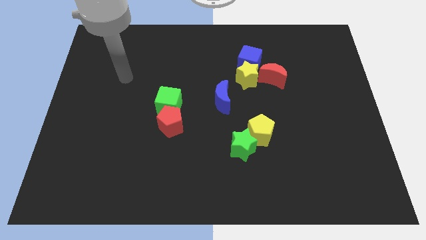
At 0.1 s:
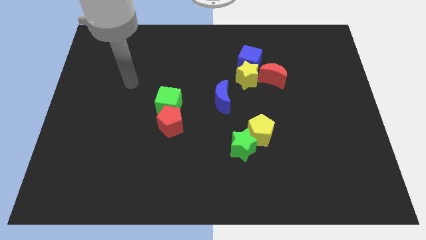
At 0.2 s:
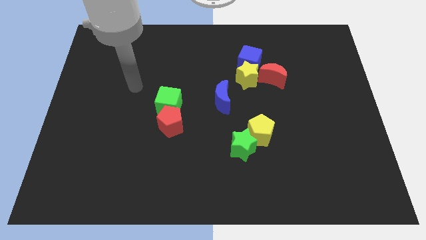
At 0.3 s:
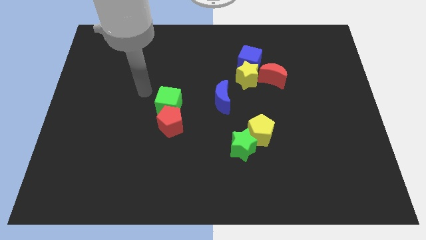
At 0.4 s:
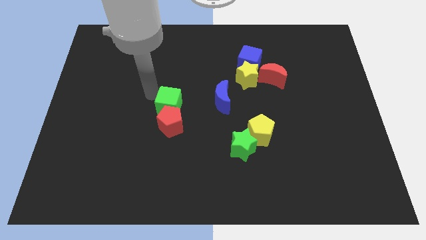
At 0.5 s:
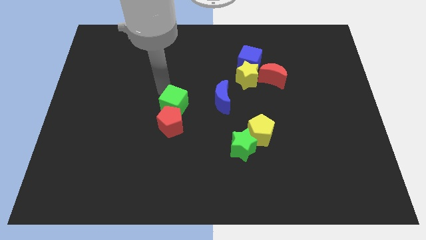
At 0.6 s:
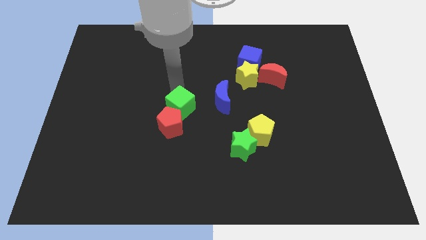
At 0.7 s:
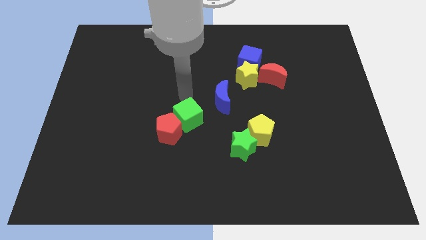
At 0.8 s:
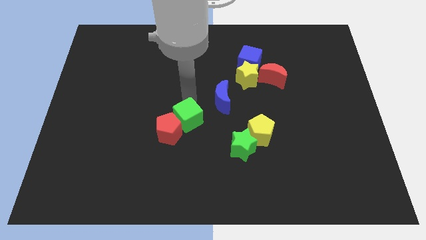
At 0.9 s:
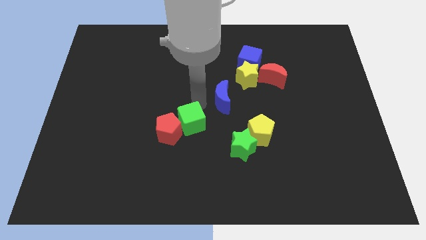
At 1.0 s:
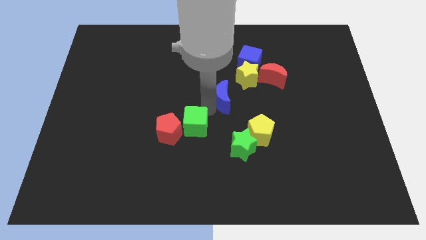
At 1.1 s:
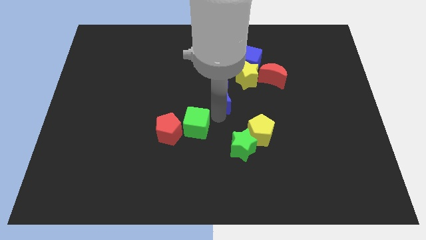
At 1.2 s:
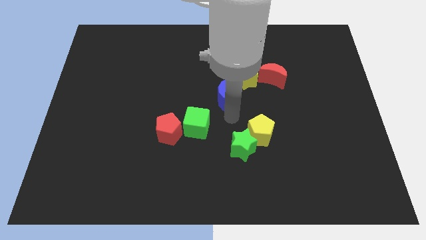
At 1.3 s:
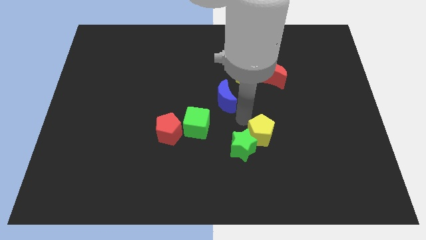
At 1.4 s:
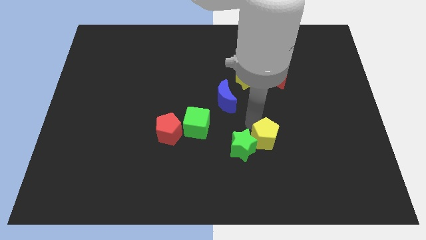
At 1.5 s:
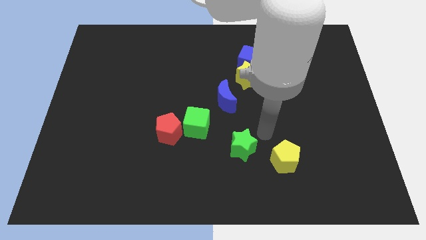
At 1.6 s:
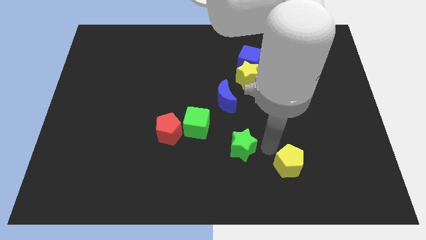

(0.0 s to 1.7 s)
separate the green star from the yellow pentagon

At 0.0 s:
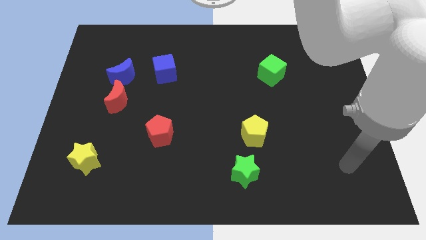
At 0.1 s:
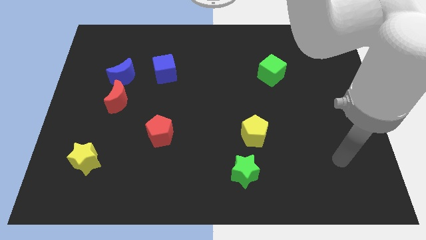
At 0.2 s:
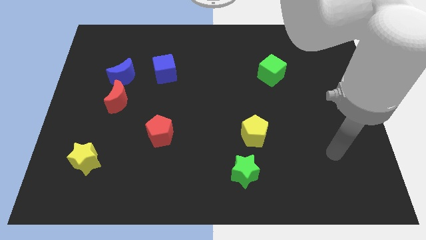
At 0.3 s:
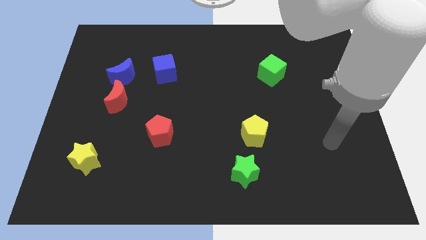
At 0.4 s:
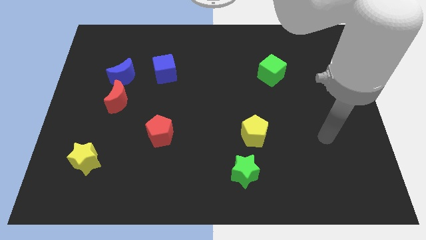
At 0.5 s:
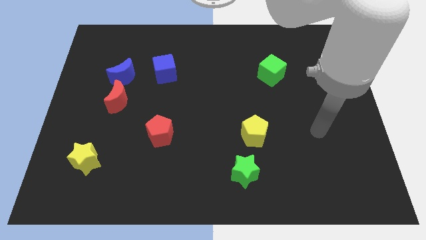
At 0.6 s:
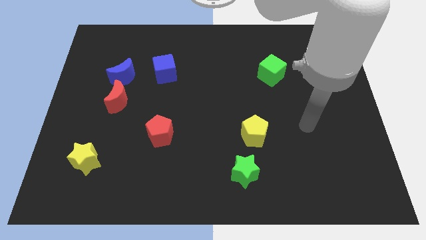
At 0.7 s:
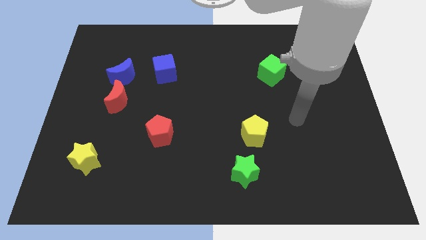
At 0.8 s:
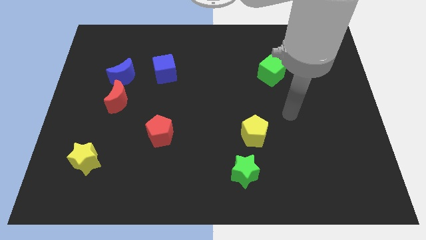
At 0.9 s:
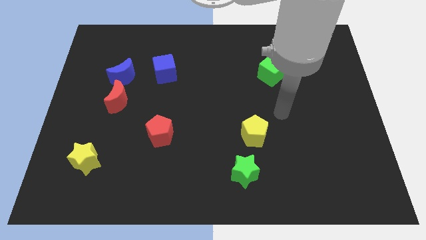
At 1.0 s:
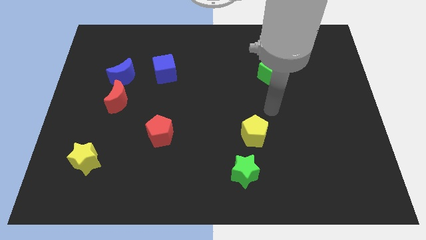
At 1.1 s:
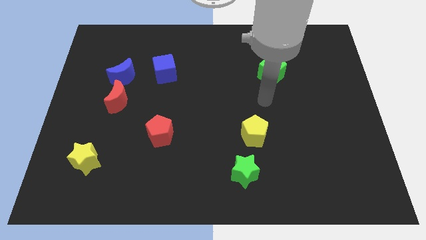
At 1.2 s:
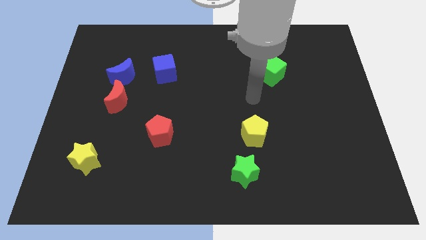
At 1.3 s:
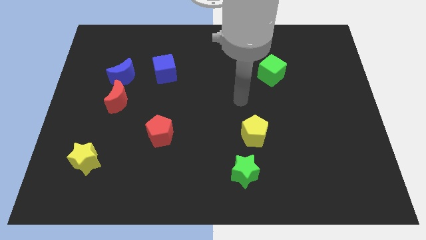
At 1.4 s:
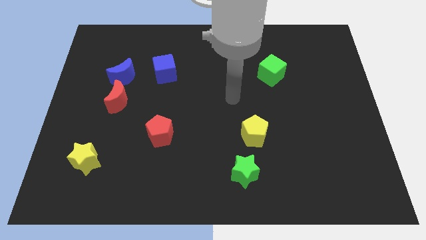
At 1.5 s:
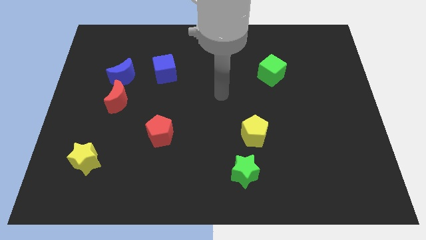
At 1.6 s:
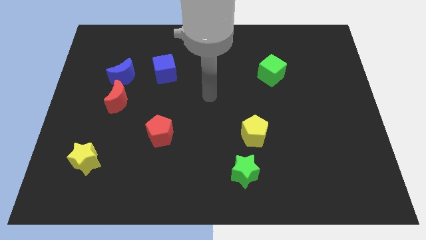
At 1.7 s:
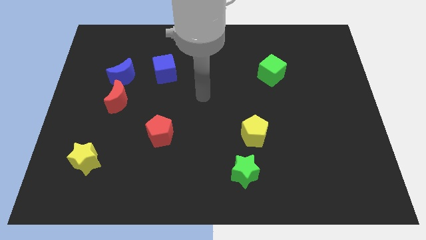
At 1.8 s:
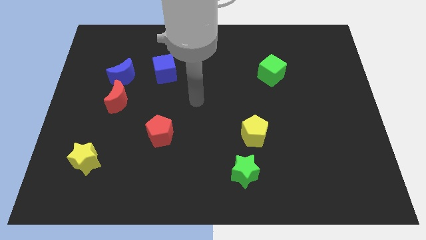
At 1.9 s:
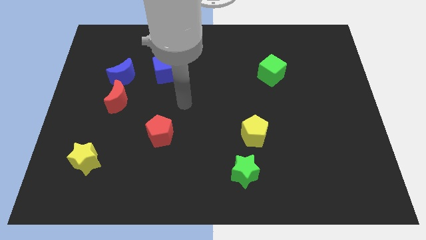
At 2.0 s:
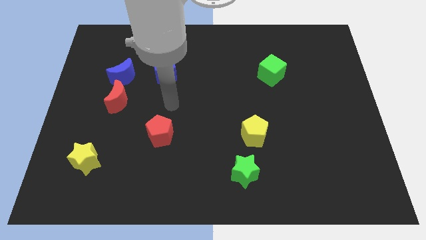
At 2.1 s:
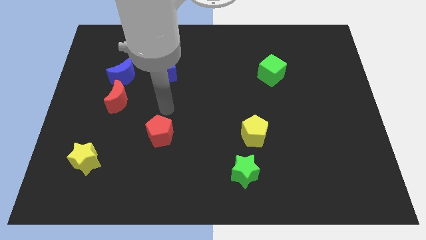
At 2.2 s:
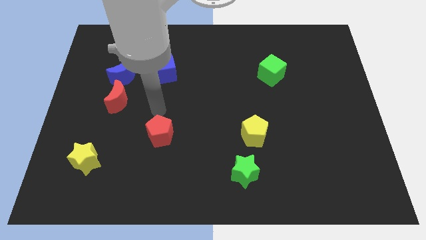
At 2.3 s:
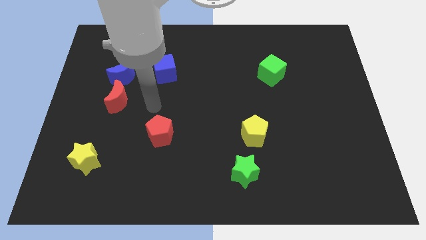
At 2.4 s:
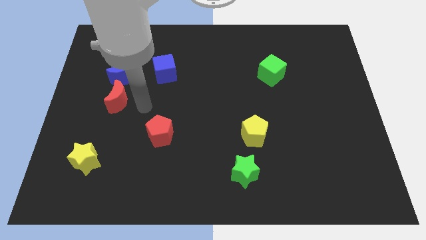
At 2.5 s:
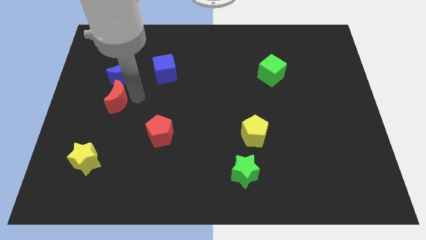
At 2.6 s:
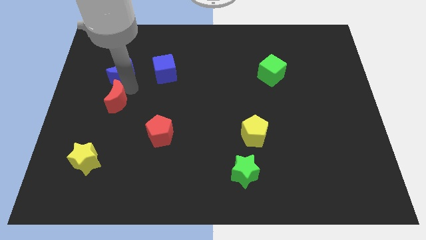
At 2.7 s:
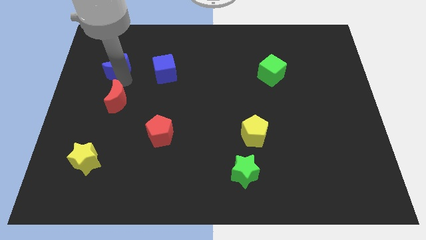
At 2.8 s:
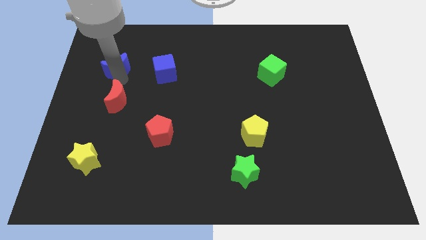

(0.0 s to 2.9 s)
separate the red moon from the blue moon

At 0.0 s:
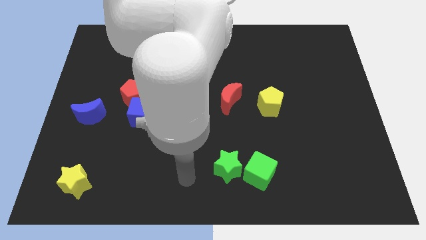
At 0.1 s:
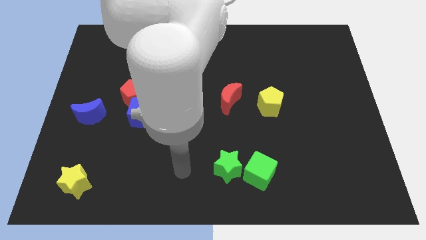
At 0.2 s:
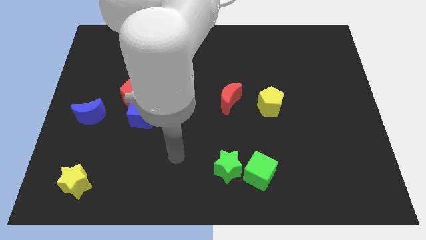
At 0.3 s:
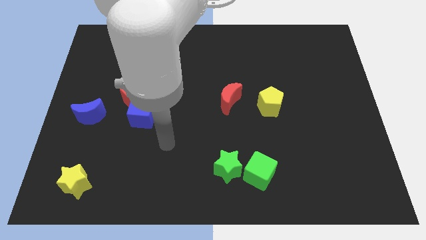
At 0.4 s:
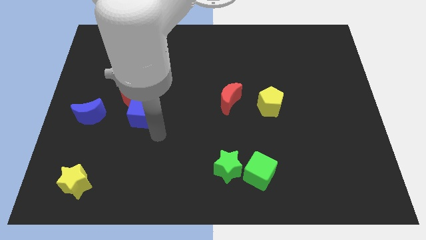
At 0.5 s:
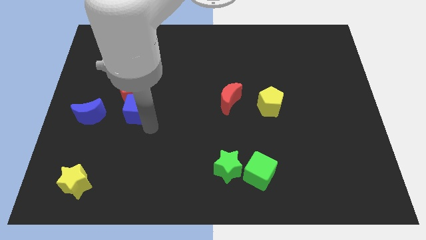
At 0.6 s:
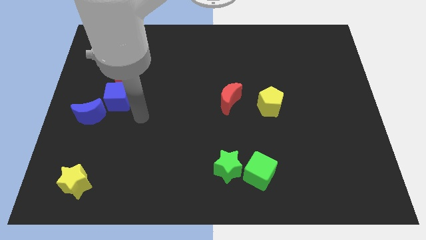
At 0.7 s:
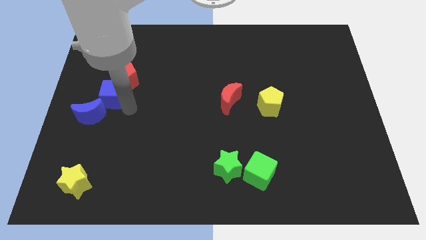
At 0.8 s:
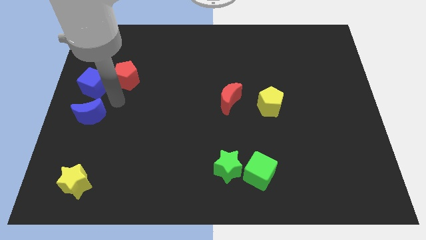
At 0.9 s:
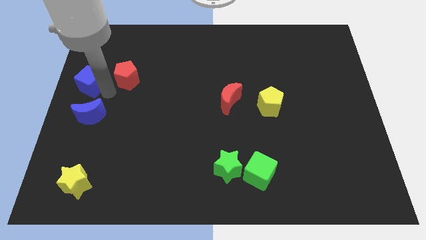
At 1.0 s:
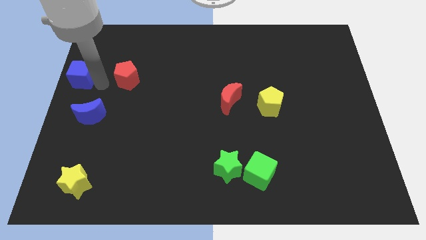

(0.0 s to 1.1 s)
pull the red pentagon apart from the blue cube

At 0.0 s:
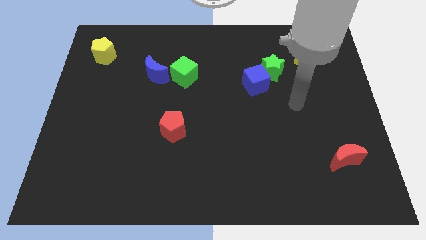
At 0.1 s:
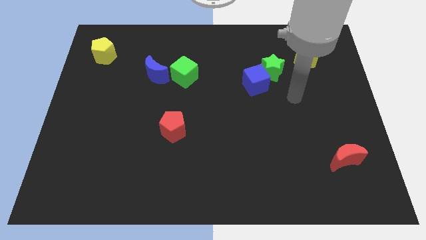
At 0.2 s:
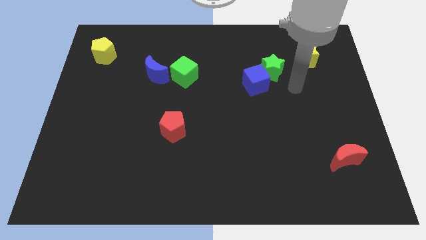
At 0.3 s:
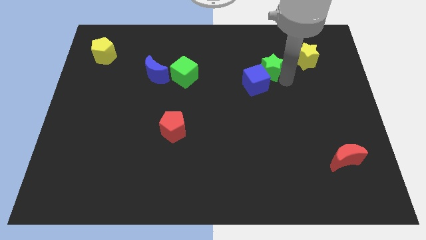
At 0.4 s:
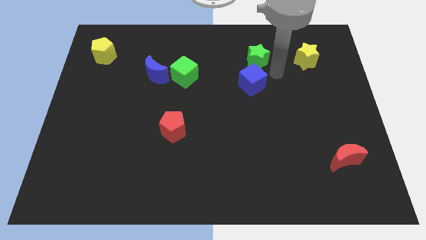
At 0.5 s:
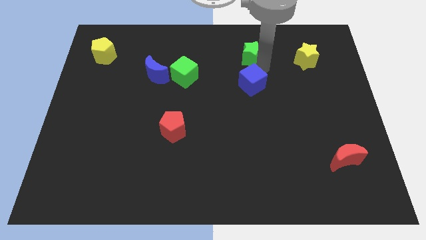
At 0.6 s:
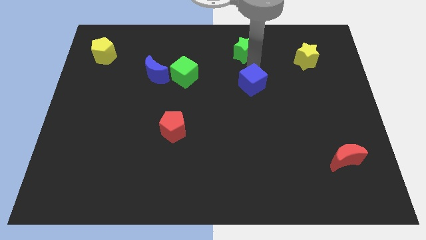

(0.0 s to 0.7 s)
pull the blue cube apart from the green star

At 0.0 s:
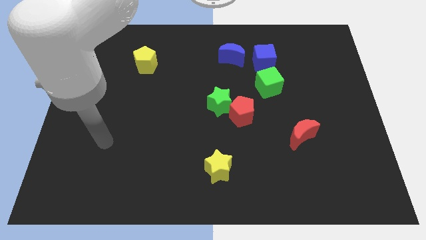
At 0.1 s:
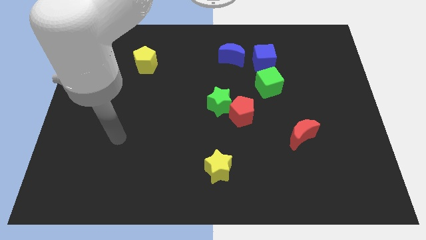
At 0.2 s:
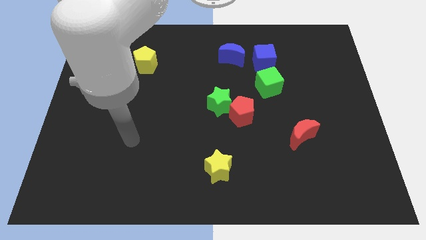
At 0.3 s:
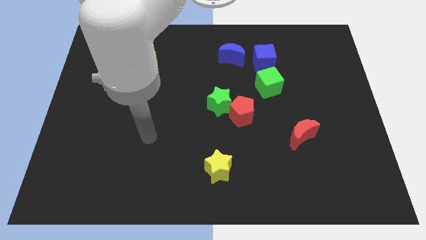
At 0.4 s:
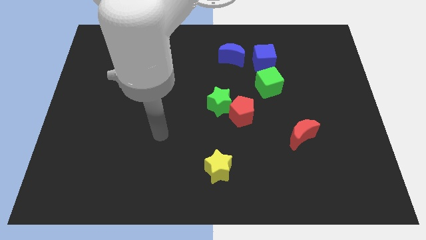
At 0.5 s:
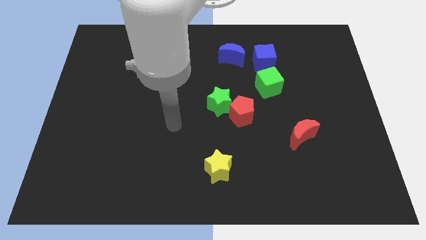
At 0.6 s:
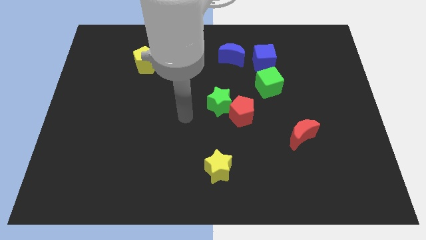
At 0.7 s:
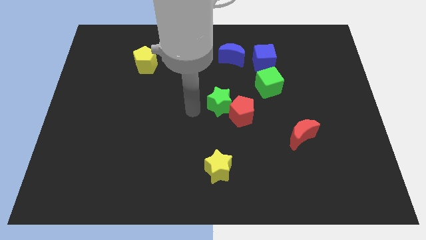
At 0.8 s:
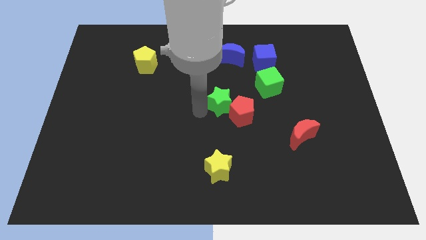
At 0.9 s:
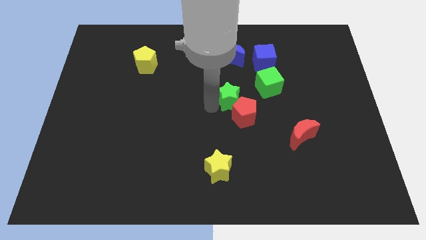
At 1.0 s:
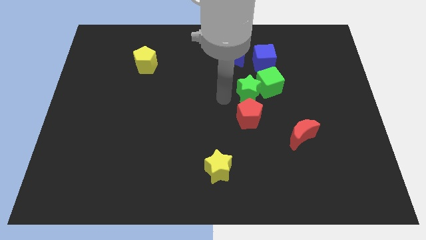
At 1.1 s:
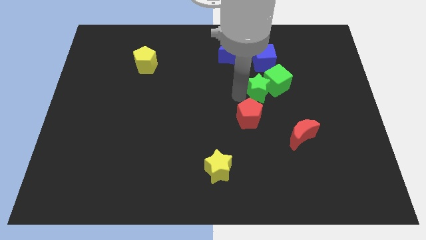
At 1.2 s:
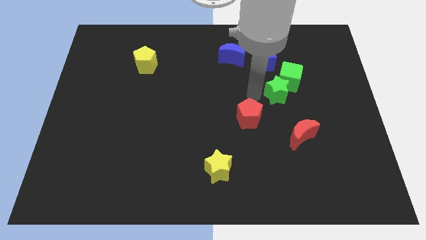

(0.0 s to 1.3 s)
move the red pentagon away from the green star

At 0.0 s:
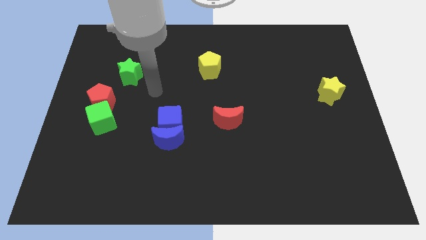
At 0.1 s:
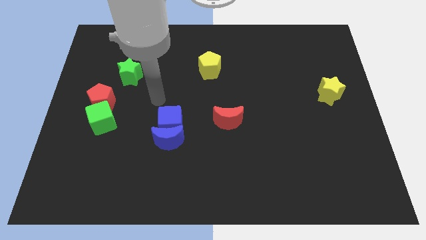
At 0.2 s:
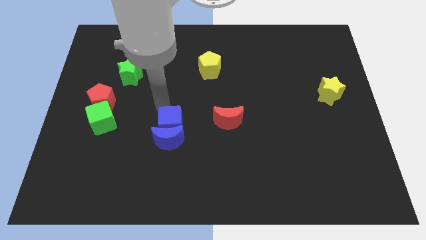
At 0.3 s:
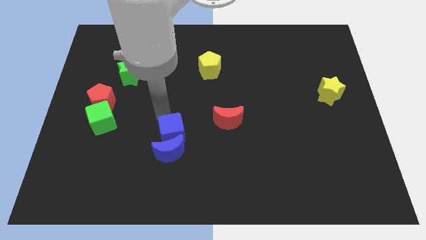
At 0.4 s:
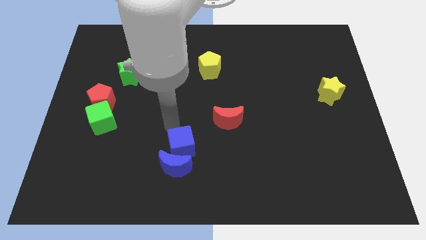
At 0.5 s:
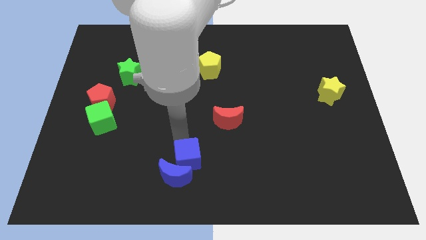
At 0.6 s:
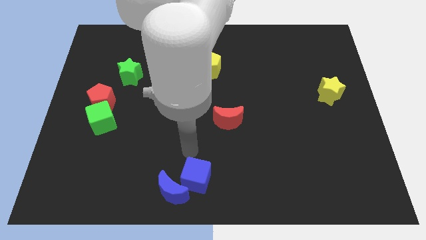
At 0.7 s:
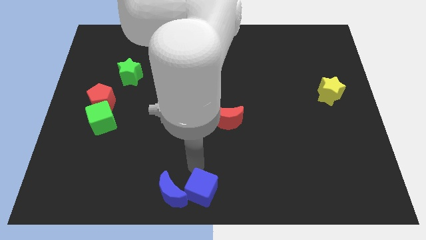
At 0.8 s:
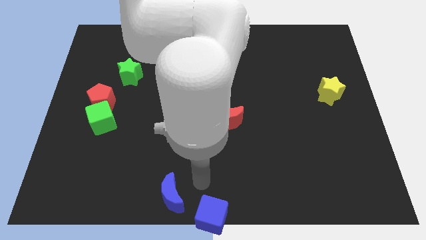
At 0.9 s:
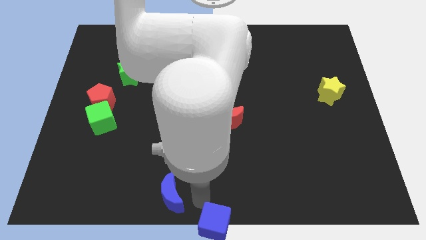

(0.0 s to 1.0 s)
move the blue moon away from the blue cube

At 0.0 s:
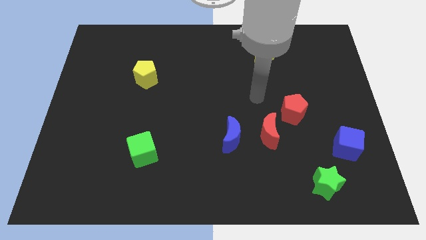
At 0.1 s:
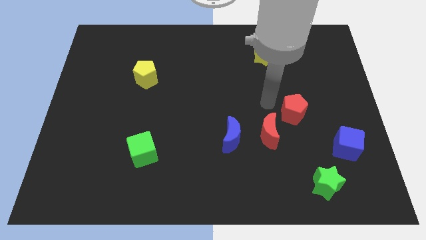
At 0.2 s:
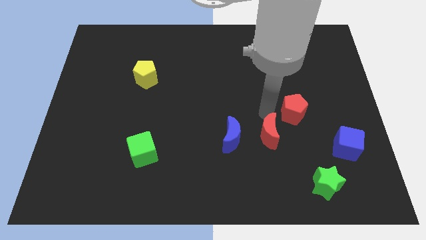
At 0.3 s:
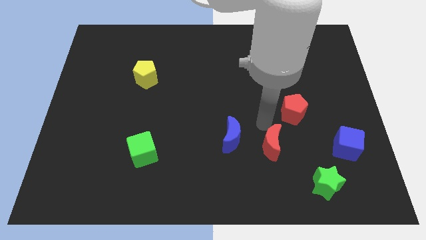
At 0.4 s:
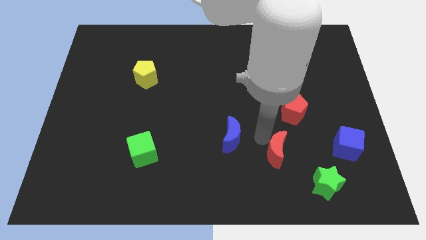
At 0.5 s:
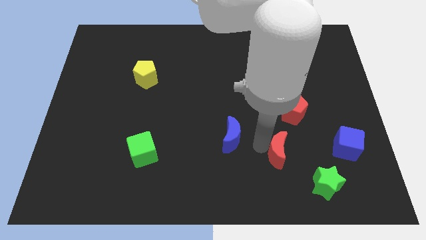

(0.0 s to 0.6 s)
pull the blue moon apart from the red moon
